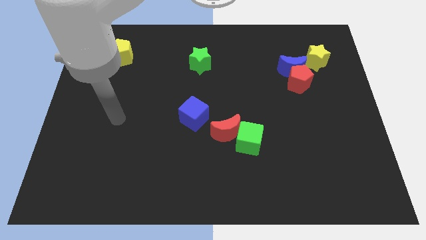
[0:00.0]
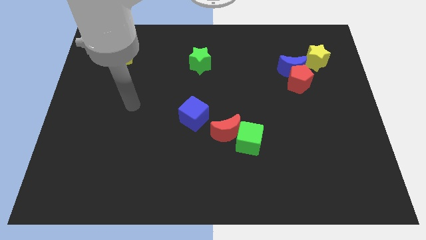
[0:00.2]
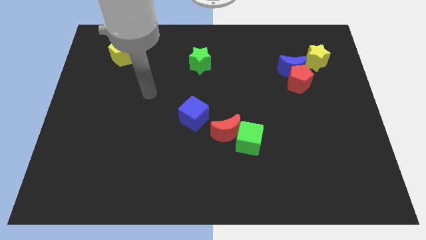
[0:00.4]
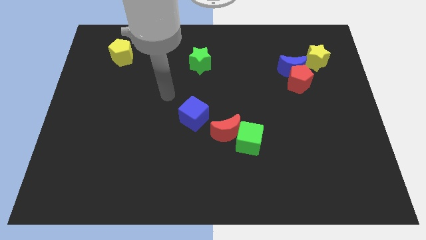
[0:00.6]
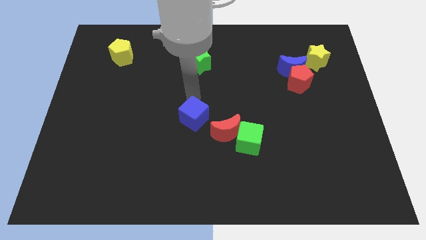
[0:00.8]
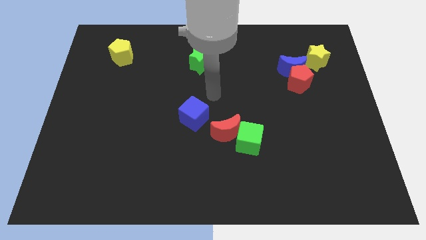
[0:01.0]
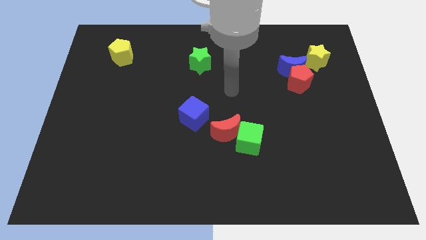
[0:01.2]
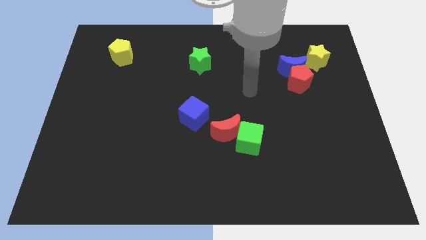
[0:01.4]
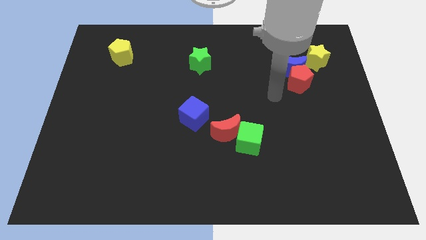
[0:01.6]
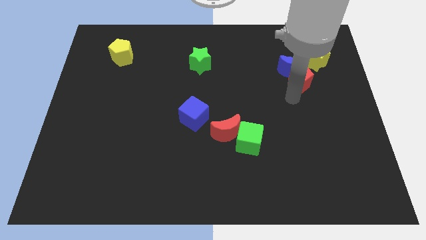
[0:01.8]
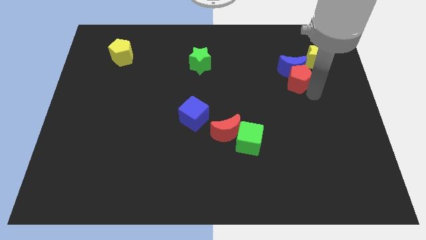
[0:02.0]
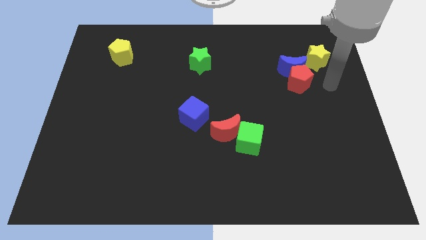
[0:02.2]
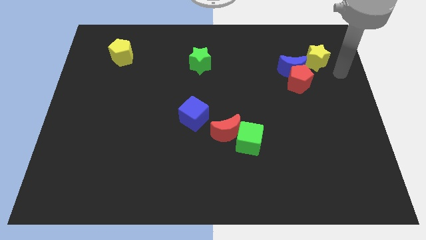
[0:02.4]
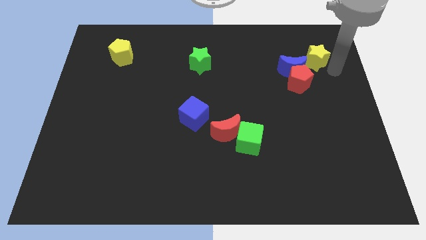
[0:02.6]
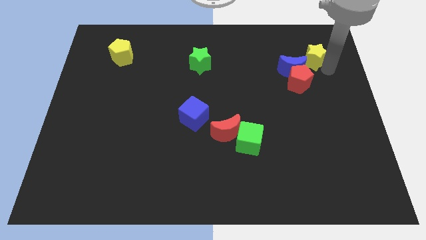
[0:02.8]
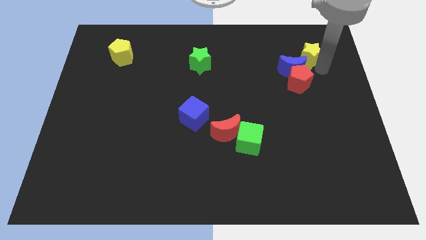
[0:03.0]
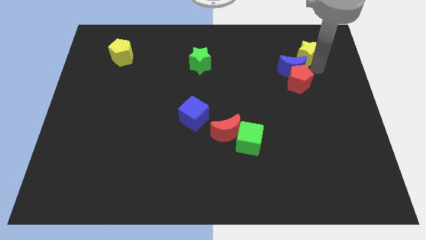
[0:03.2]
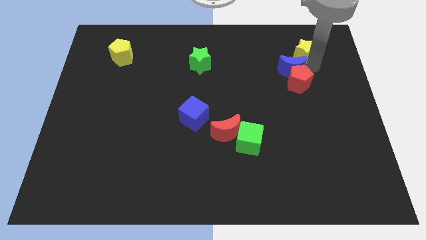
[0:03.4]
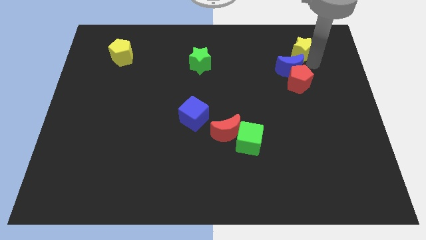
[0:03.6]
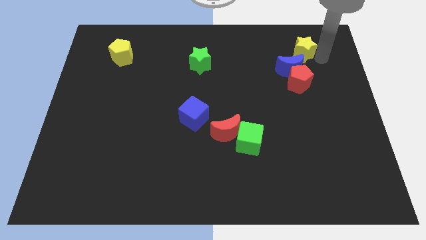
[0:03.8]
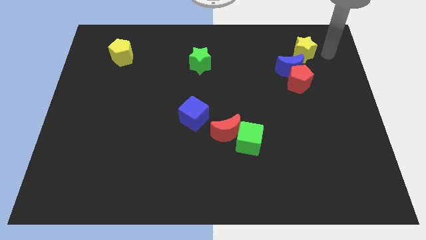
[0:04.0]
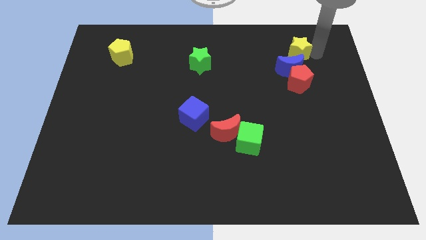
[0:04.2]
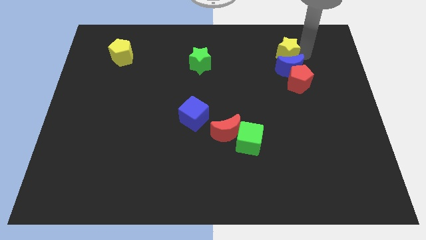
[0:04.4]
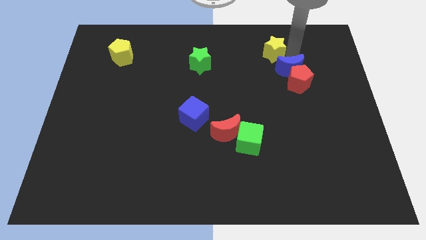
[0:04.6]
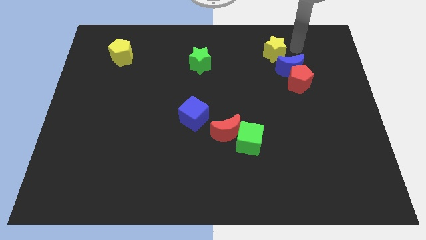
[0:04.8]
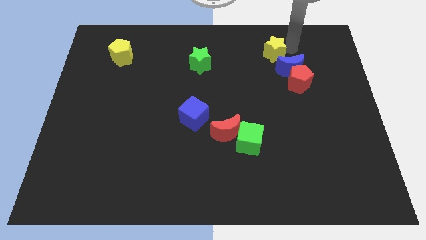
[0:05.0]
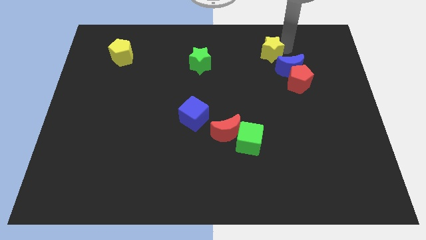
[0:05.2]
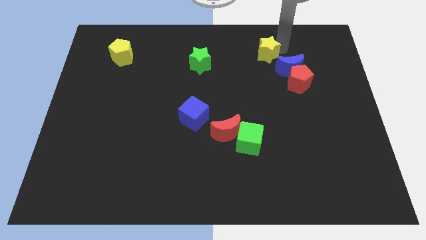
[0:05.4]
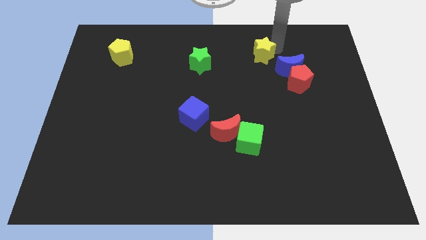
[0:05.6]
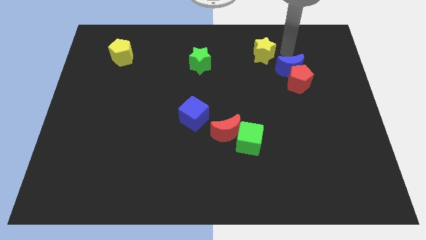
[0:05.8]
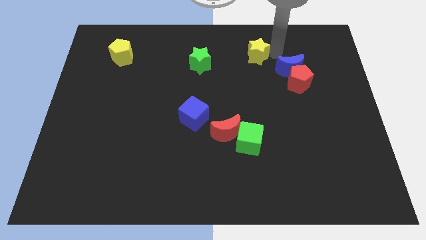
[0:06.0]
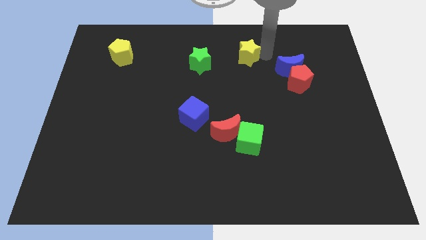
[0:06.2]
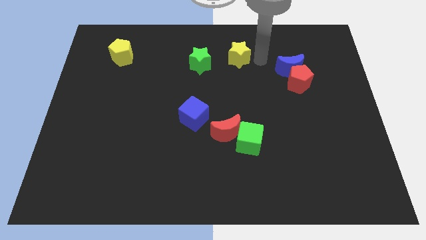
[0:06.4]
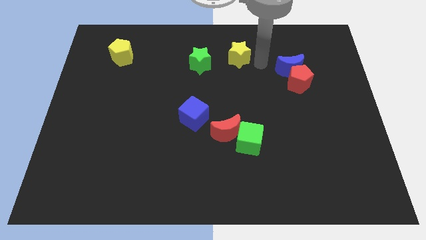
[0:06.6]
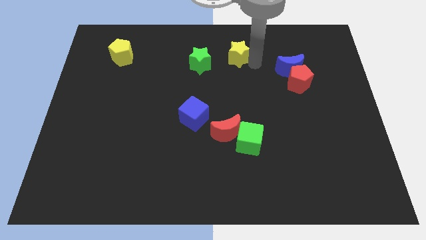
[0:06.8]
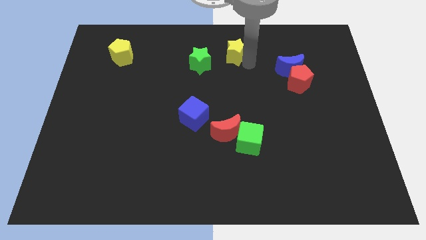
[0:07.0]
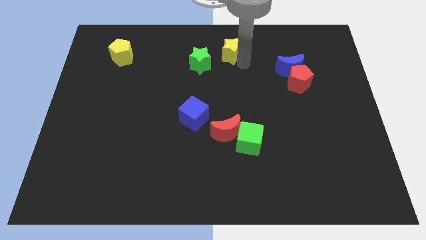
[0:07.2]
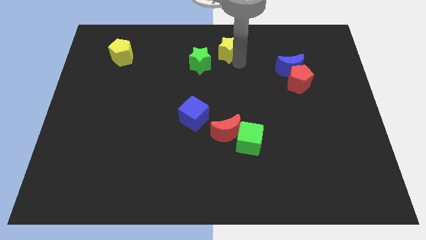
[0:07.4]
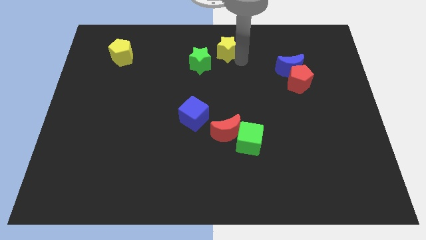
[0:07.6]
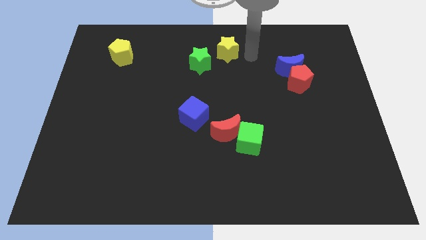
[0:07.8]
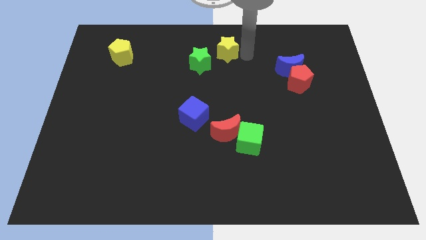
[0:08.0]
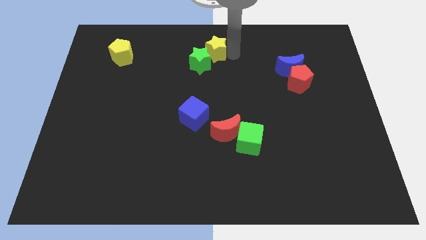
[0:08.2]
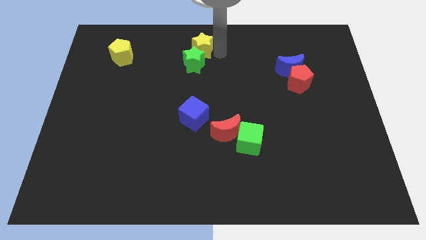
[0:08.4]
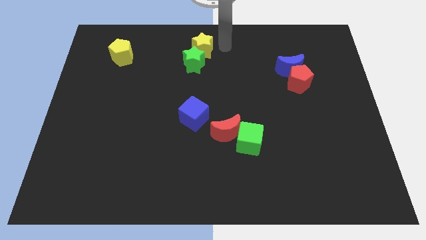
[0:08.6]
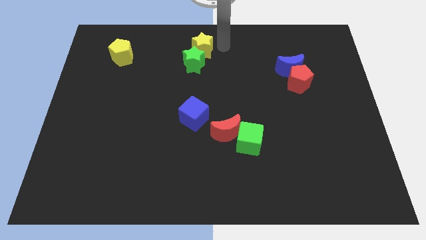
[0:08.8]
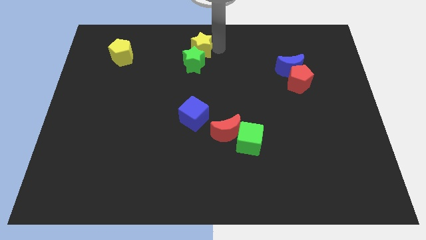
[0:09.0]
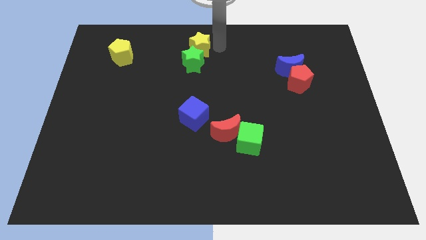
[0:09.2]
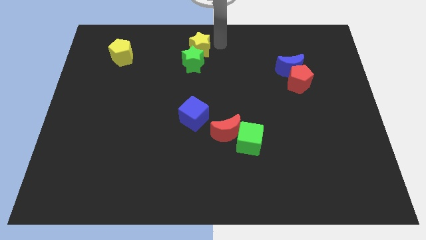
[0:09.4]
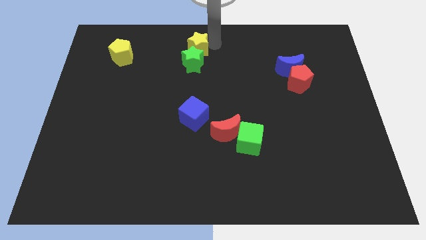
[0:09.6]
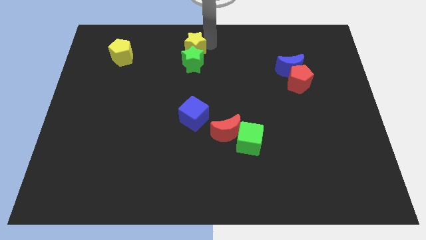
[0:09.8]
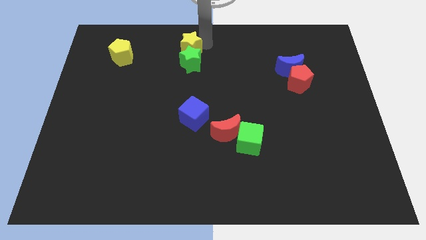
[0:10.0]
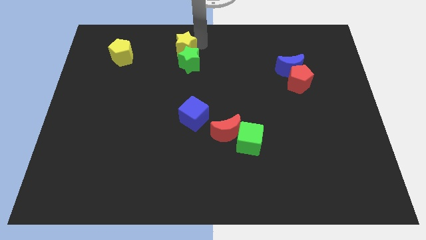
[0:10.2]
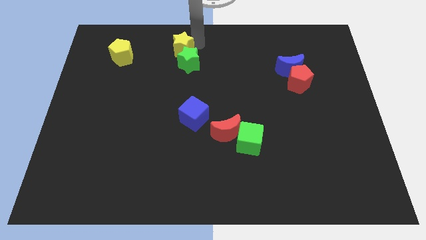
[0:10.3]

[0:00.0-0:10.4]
slide the yellow star just right of the yellow pentagon
